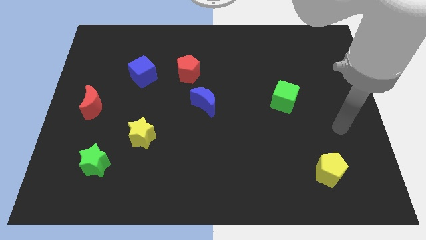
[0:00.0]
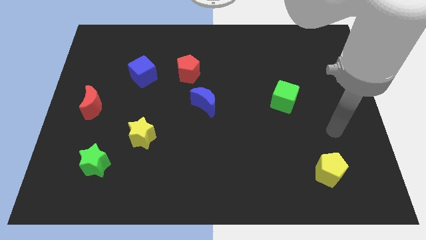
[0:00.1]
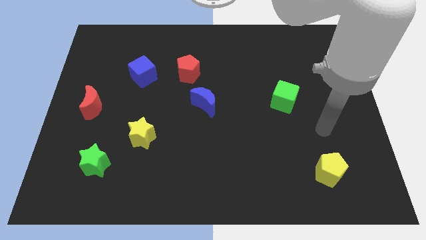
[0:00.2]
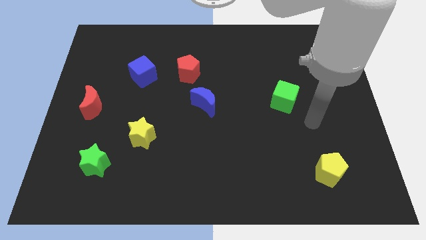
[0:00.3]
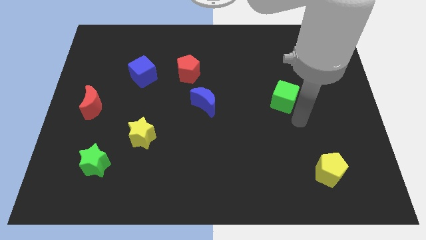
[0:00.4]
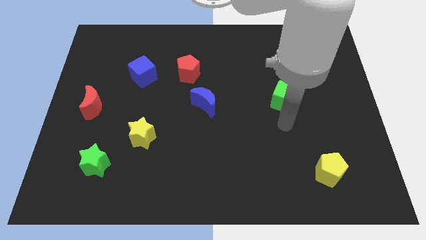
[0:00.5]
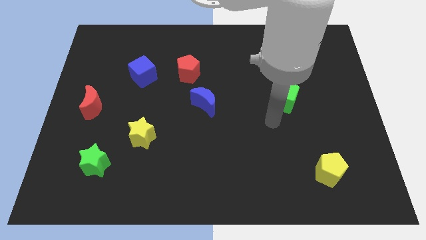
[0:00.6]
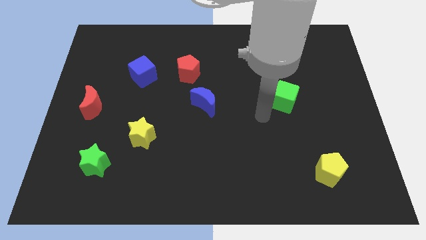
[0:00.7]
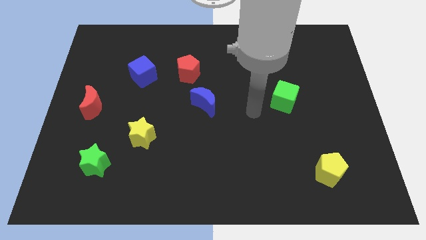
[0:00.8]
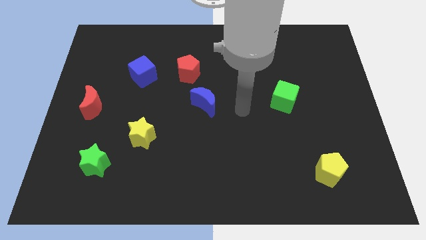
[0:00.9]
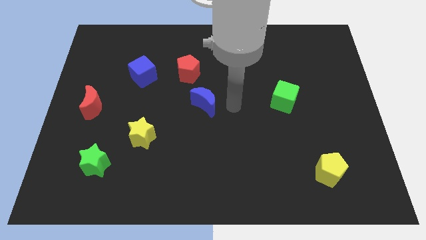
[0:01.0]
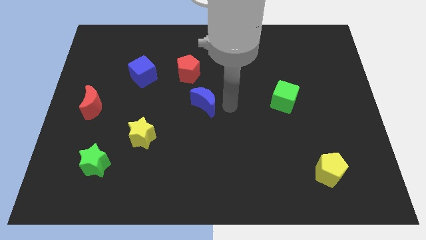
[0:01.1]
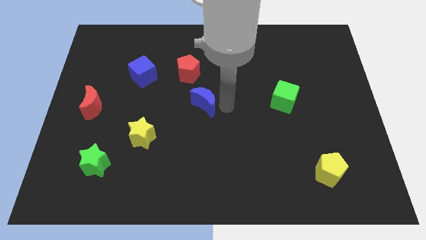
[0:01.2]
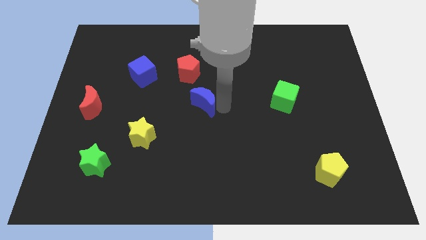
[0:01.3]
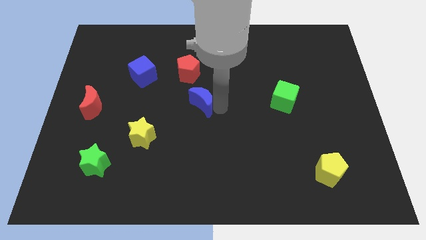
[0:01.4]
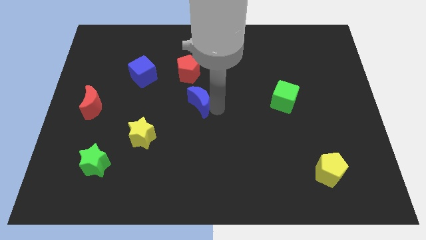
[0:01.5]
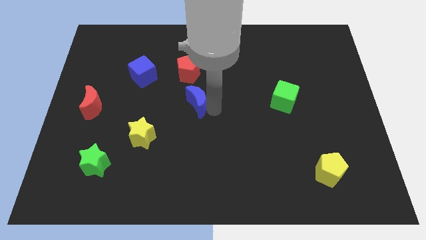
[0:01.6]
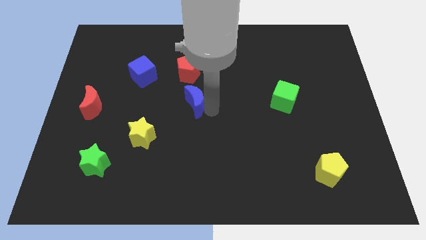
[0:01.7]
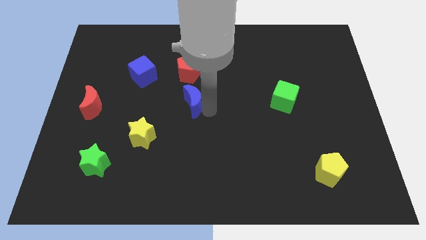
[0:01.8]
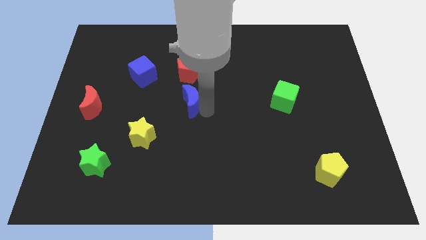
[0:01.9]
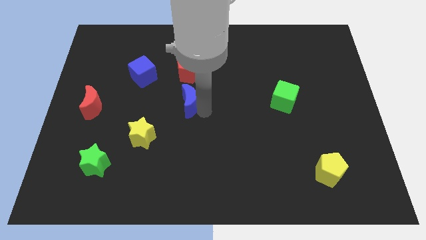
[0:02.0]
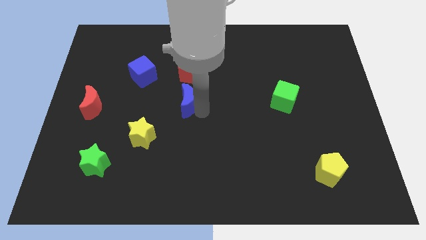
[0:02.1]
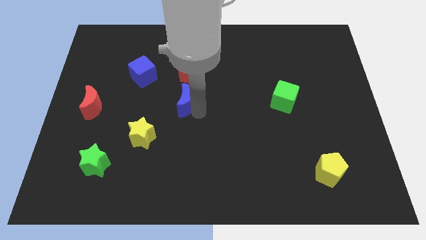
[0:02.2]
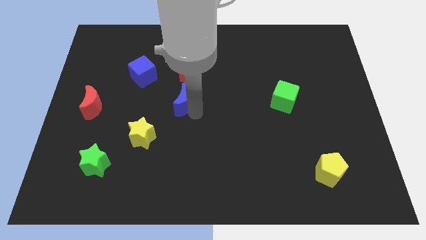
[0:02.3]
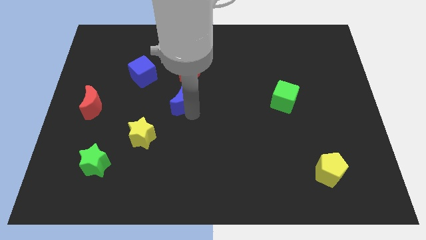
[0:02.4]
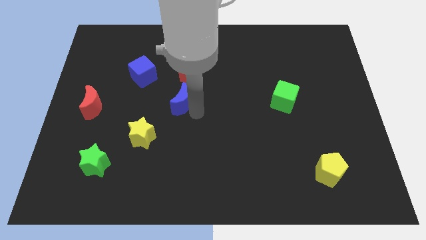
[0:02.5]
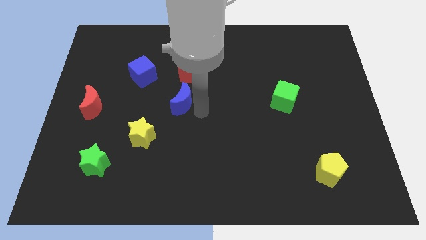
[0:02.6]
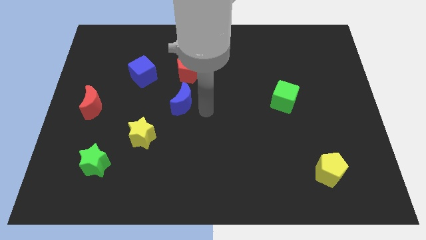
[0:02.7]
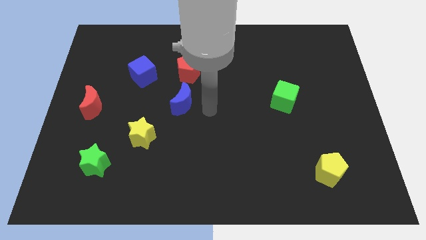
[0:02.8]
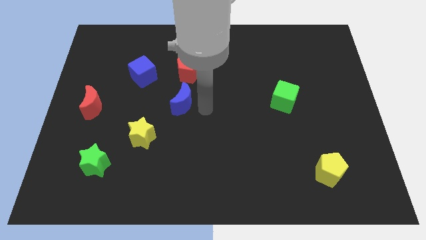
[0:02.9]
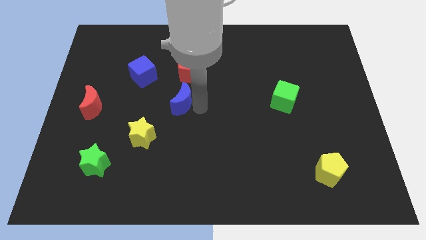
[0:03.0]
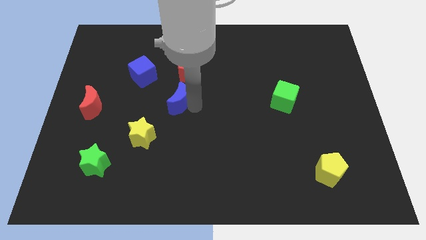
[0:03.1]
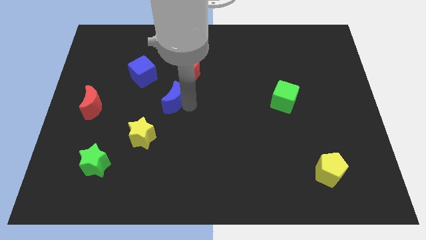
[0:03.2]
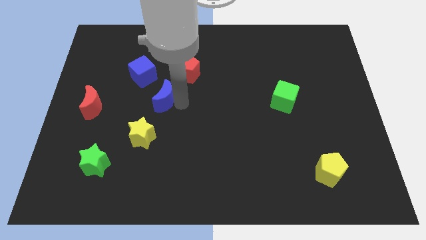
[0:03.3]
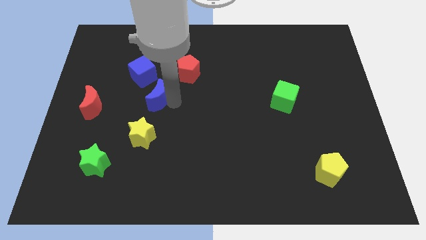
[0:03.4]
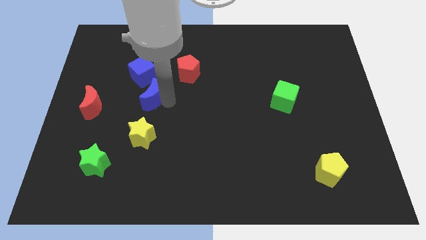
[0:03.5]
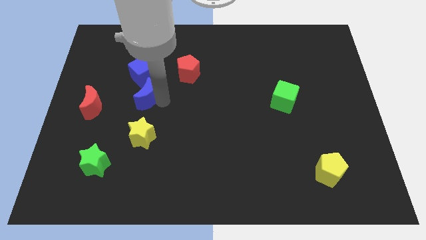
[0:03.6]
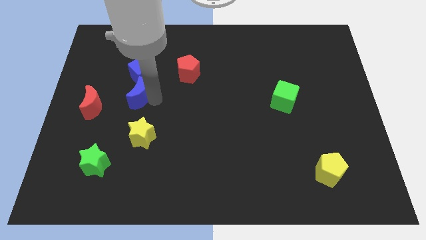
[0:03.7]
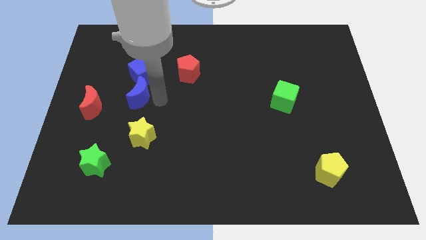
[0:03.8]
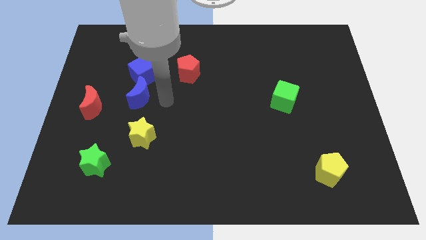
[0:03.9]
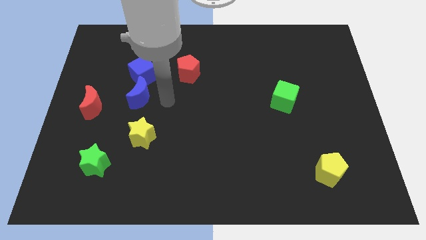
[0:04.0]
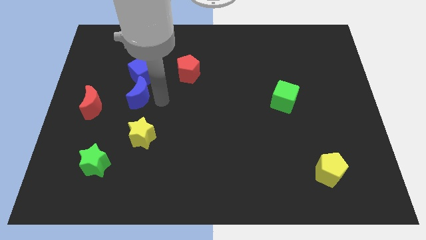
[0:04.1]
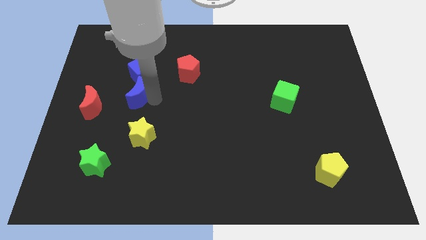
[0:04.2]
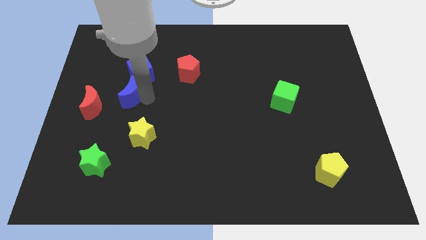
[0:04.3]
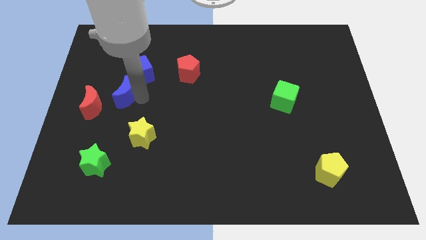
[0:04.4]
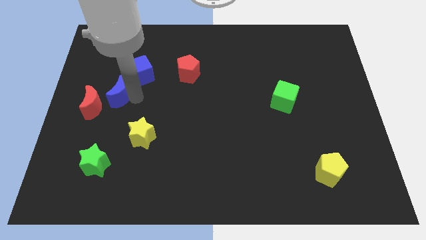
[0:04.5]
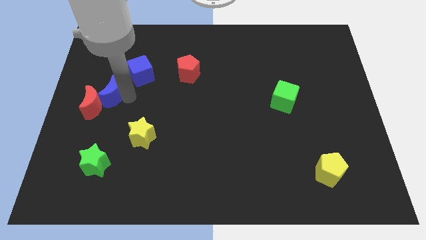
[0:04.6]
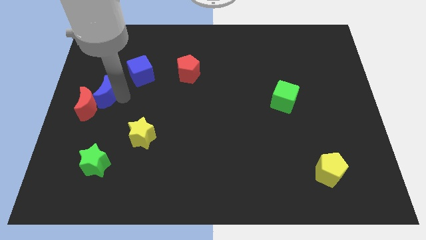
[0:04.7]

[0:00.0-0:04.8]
put the blue moon to the left side of the board

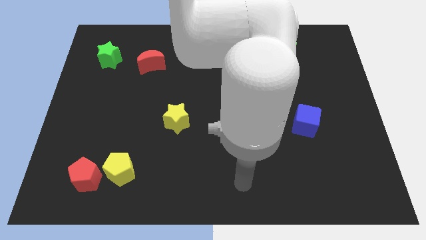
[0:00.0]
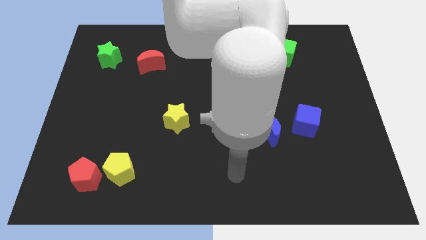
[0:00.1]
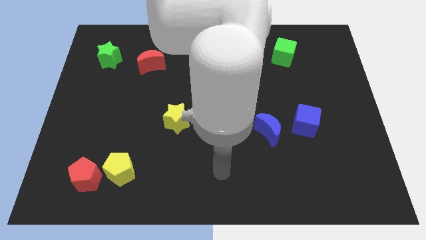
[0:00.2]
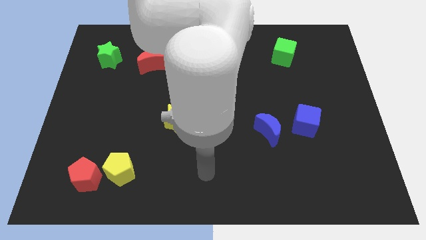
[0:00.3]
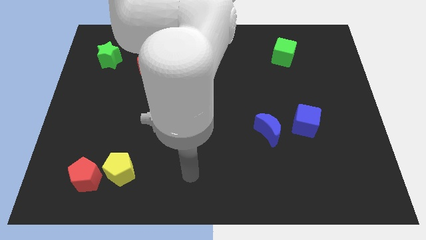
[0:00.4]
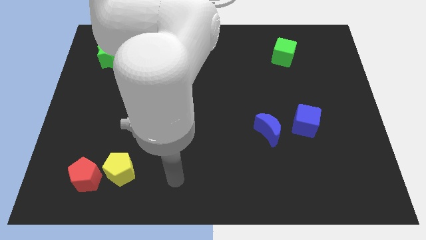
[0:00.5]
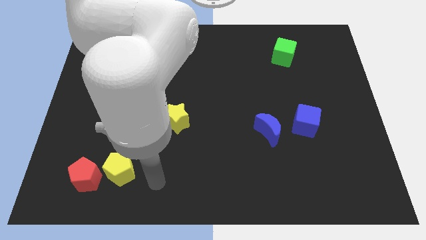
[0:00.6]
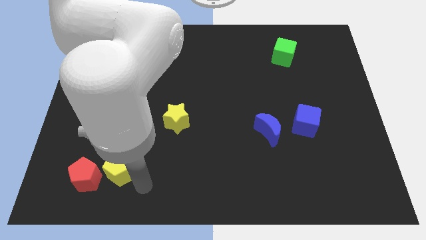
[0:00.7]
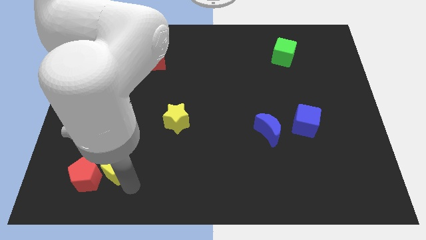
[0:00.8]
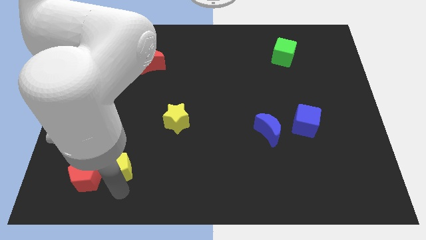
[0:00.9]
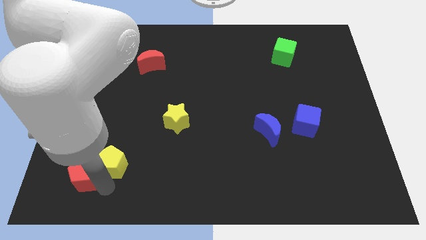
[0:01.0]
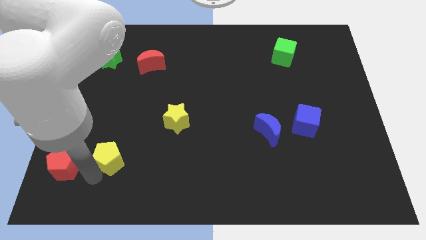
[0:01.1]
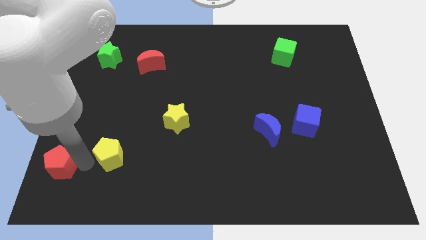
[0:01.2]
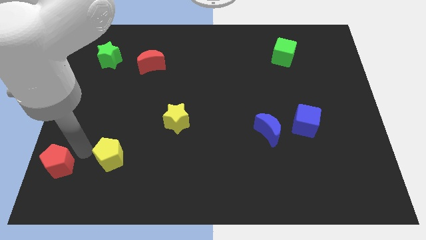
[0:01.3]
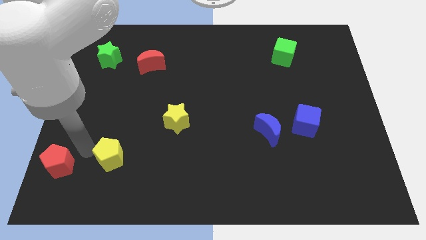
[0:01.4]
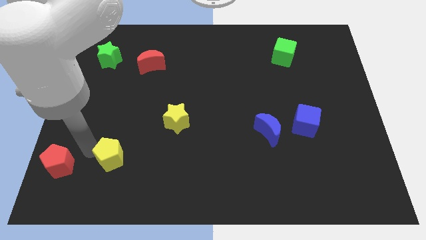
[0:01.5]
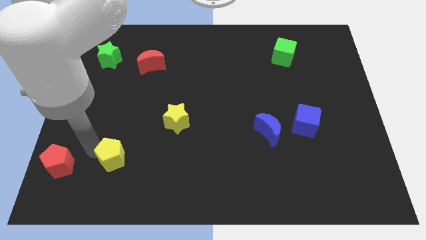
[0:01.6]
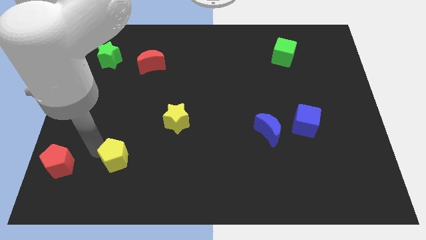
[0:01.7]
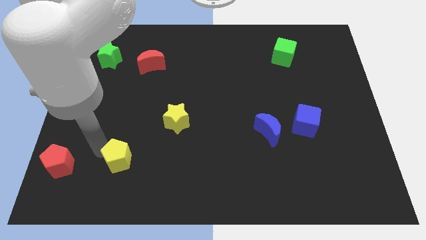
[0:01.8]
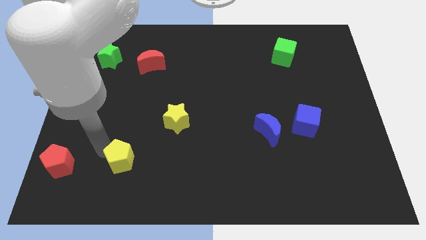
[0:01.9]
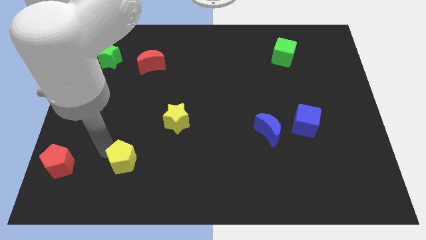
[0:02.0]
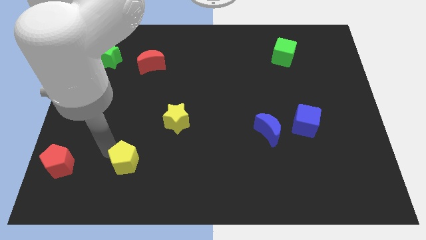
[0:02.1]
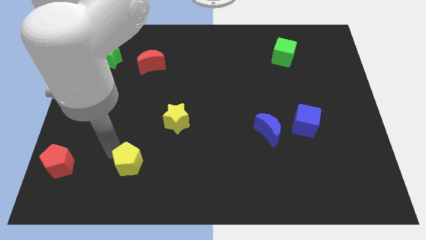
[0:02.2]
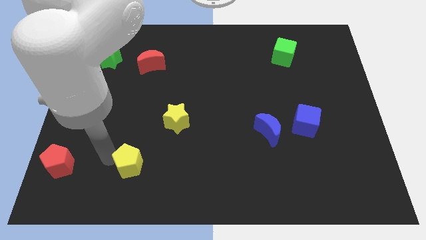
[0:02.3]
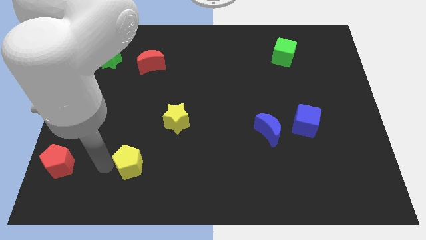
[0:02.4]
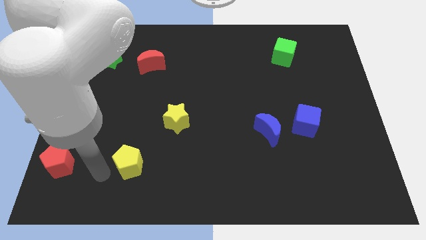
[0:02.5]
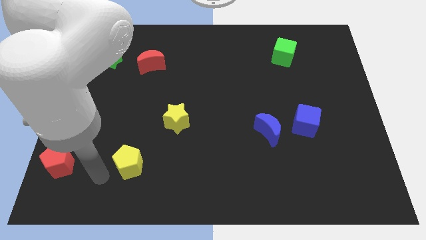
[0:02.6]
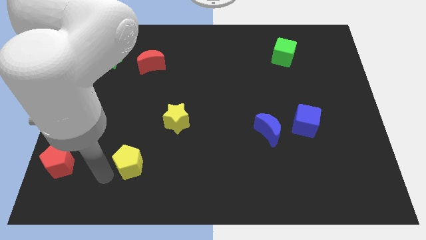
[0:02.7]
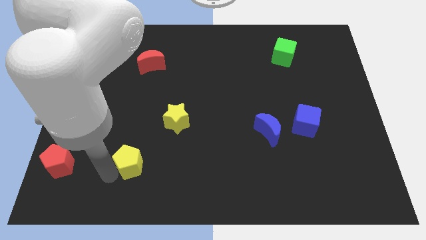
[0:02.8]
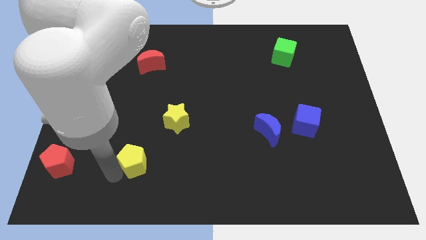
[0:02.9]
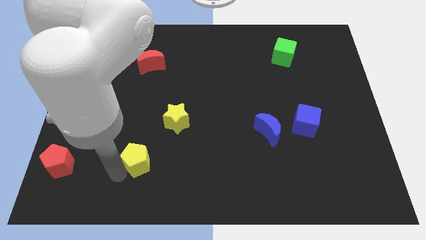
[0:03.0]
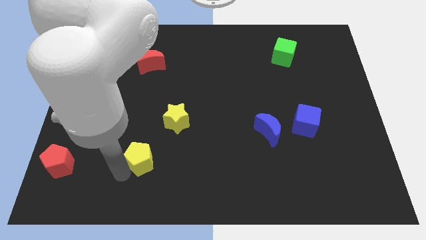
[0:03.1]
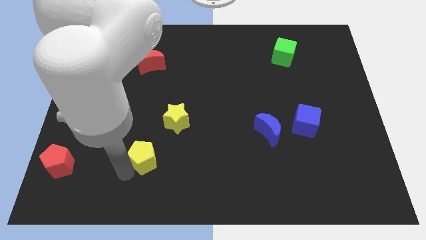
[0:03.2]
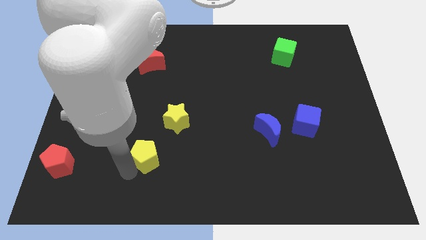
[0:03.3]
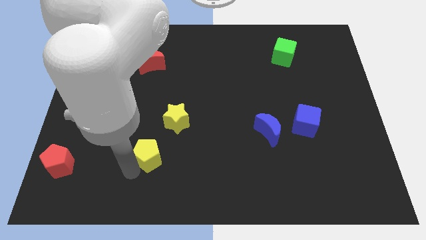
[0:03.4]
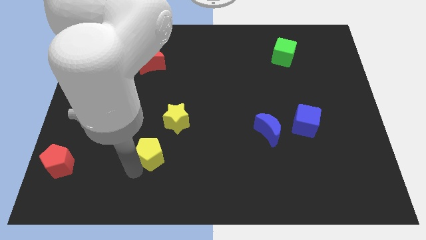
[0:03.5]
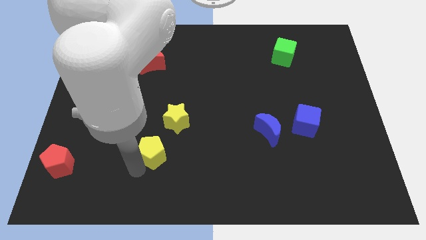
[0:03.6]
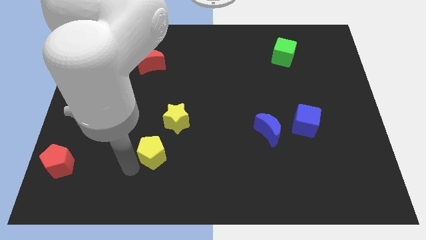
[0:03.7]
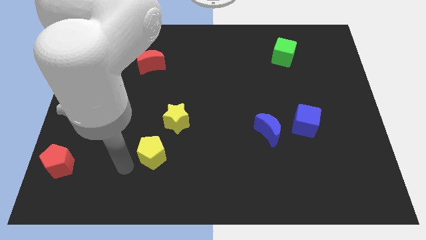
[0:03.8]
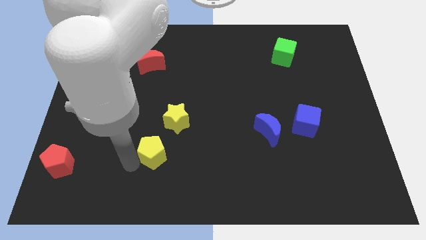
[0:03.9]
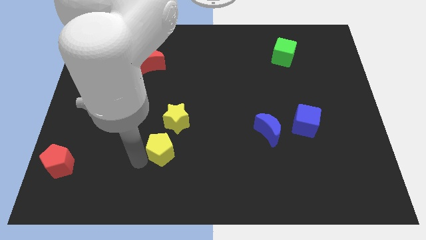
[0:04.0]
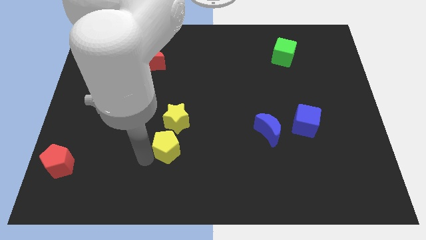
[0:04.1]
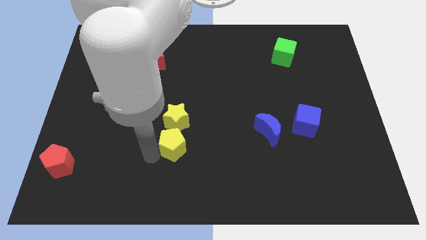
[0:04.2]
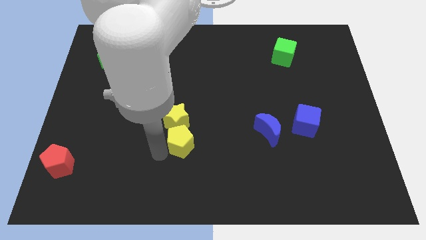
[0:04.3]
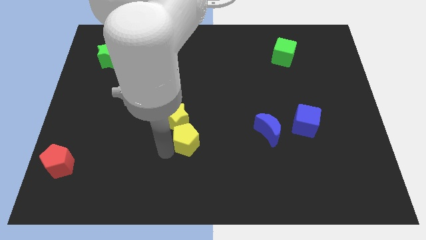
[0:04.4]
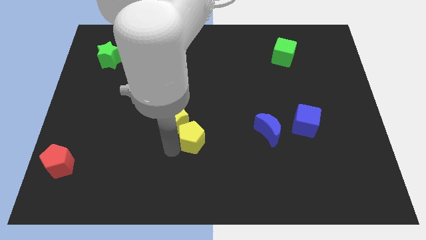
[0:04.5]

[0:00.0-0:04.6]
slide the yellow pentagon to the center
